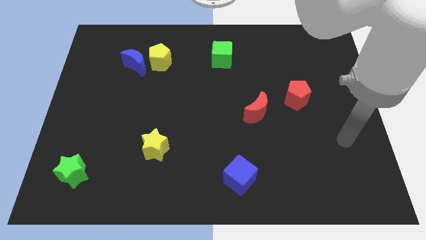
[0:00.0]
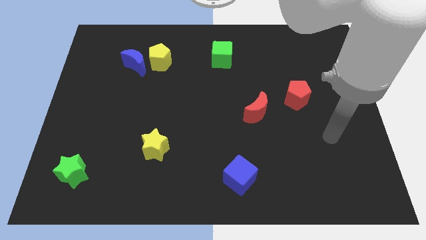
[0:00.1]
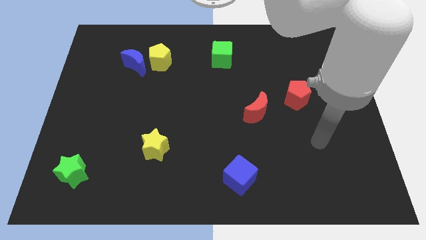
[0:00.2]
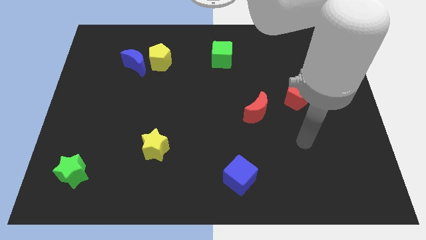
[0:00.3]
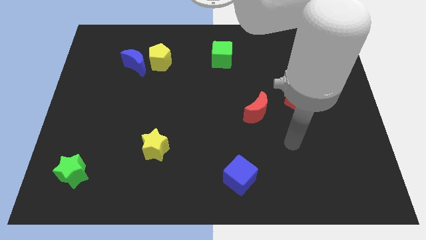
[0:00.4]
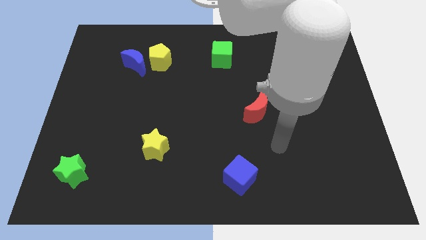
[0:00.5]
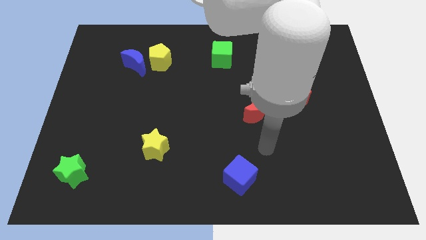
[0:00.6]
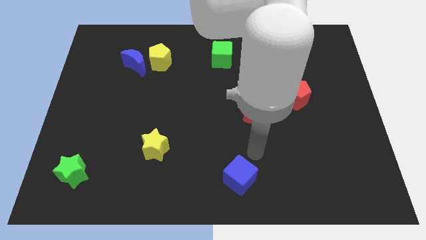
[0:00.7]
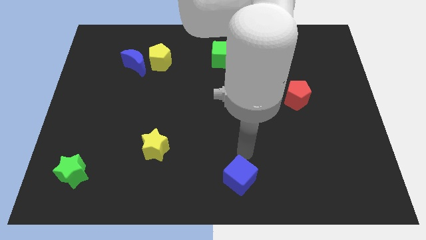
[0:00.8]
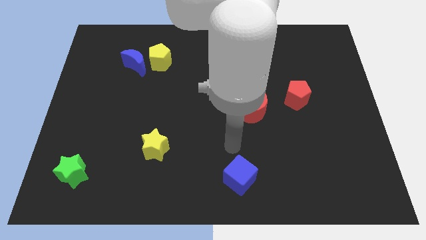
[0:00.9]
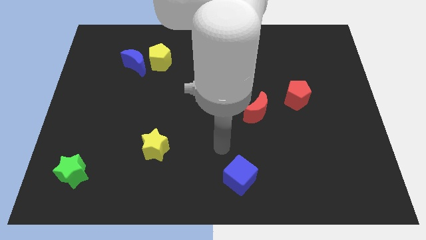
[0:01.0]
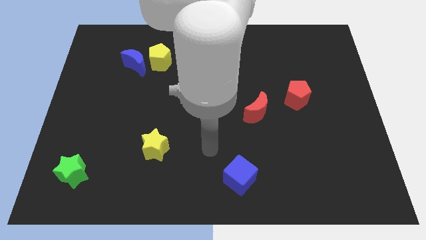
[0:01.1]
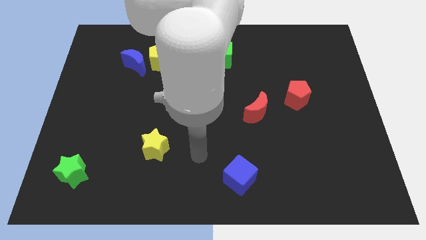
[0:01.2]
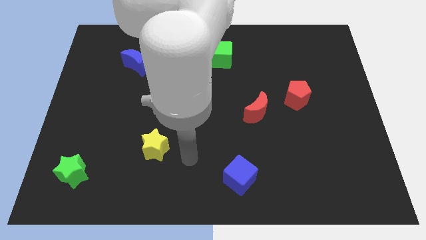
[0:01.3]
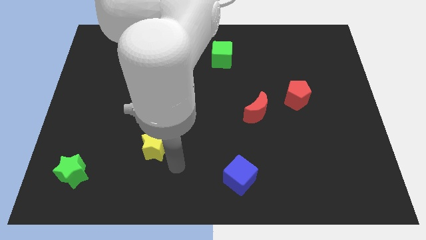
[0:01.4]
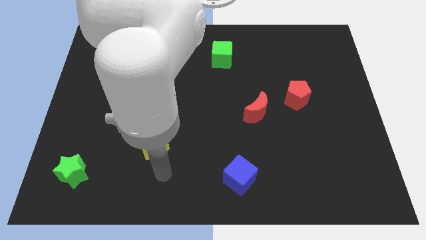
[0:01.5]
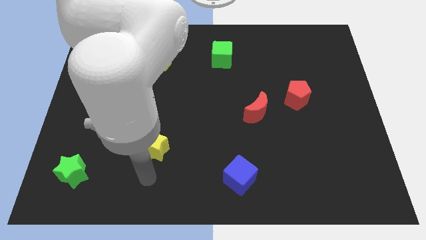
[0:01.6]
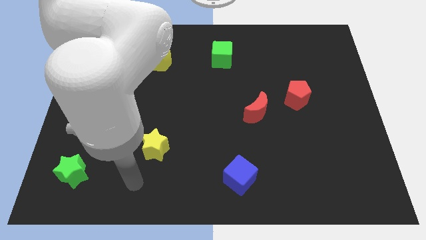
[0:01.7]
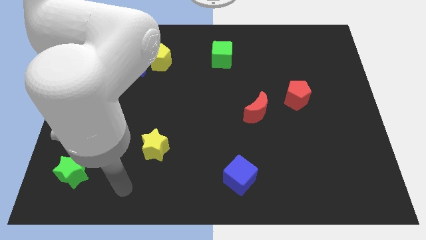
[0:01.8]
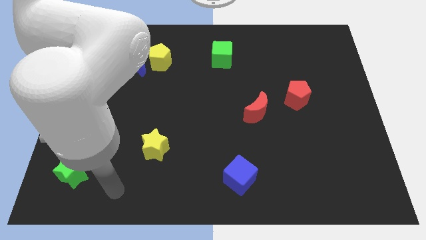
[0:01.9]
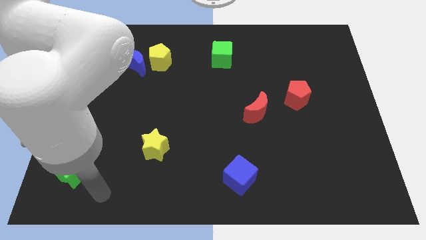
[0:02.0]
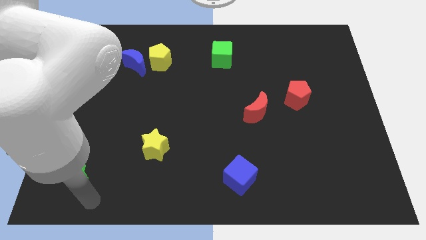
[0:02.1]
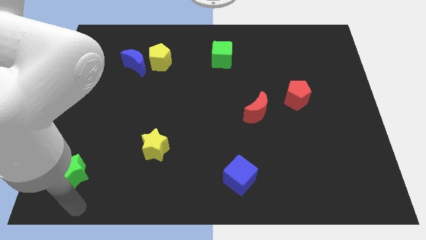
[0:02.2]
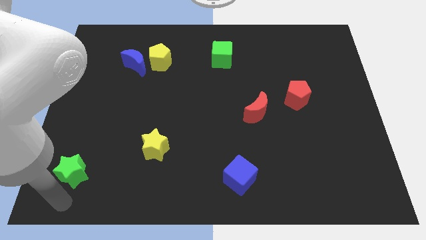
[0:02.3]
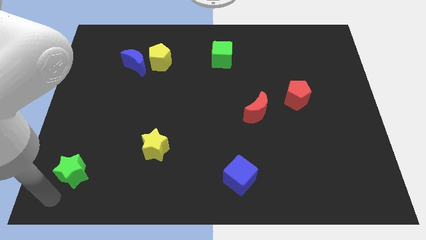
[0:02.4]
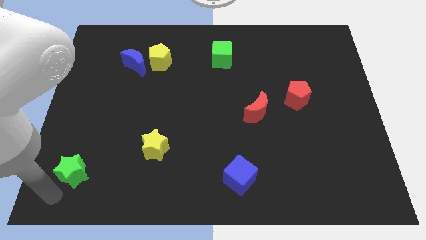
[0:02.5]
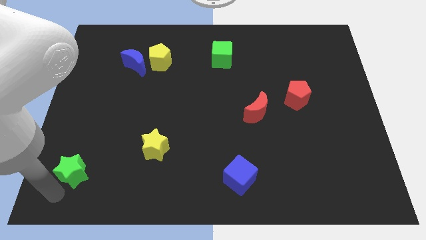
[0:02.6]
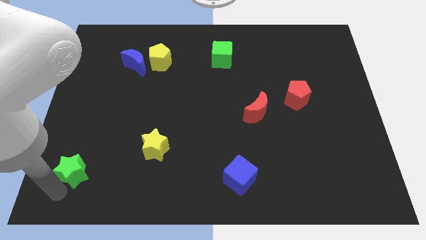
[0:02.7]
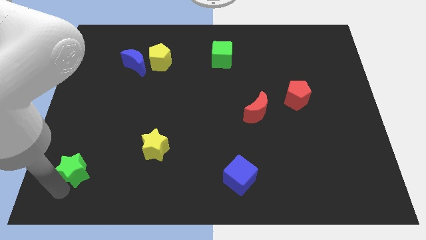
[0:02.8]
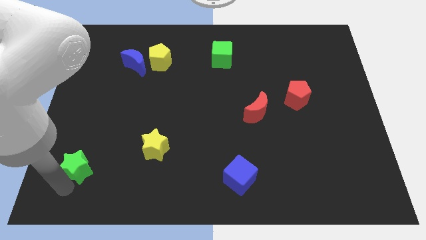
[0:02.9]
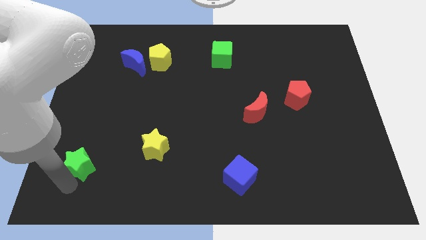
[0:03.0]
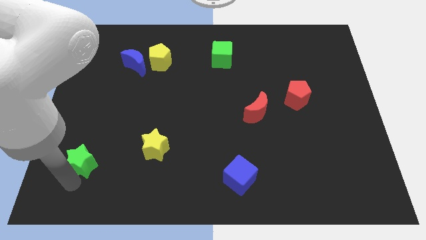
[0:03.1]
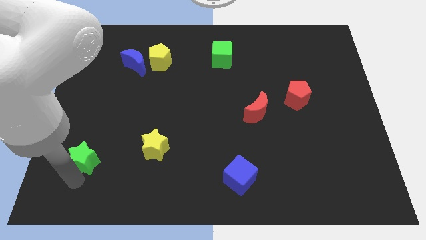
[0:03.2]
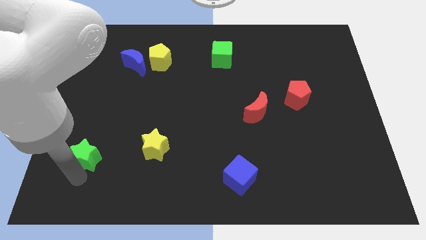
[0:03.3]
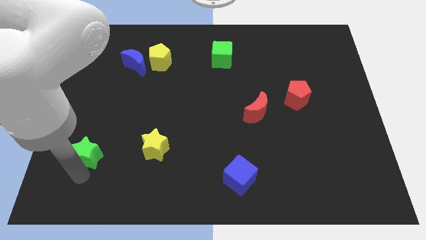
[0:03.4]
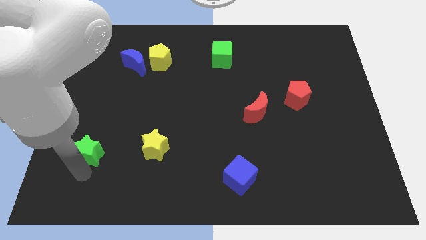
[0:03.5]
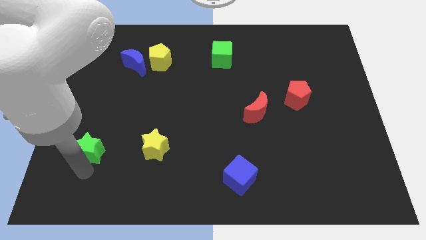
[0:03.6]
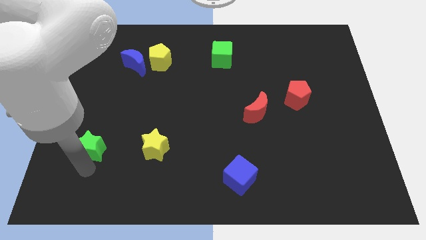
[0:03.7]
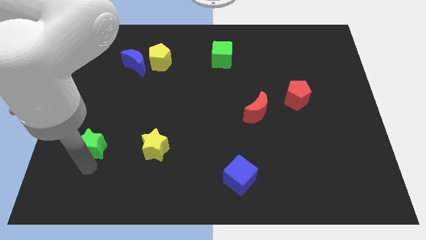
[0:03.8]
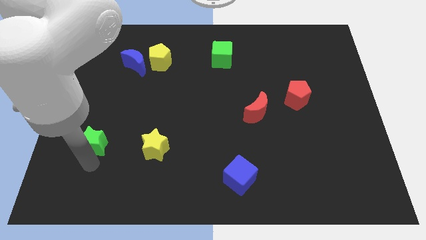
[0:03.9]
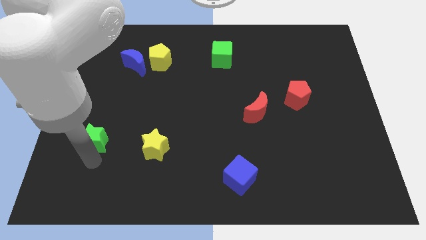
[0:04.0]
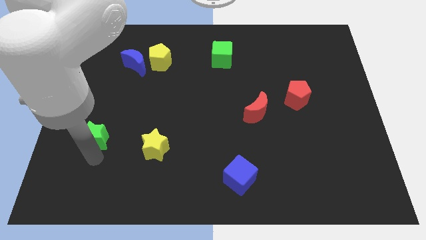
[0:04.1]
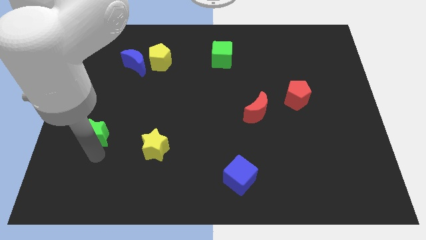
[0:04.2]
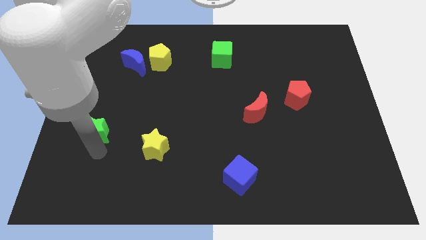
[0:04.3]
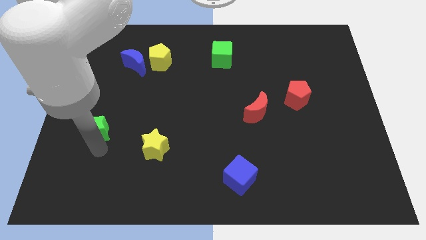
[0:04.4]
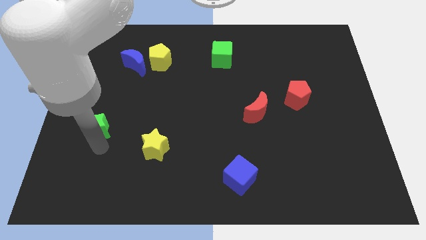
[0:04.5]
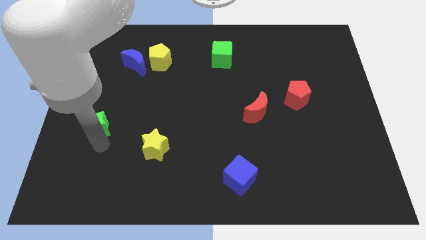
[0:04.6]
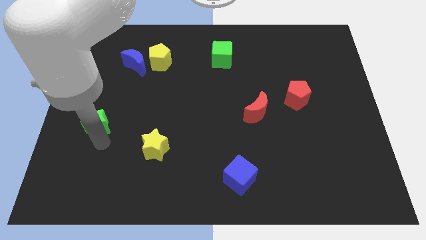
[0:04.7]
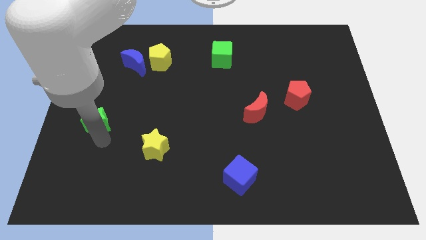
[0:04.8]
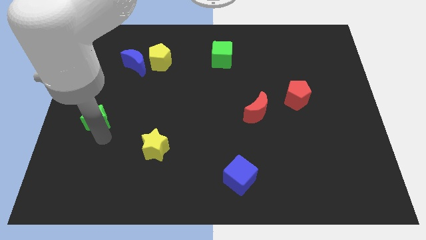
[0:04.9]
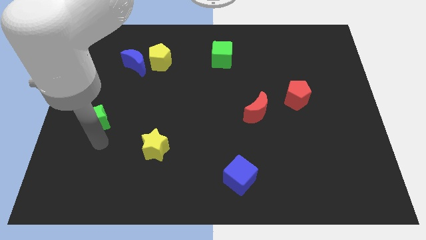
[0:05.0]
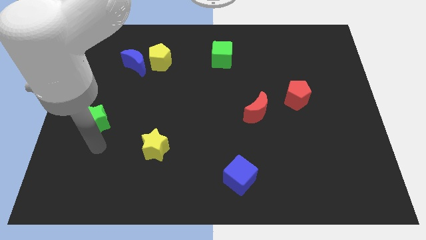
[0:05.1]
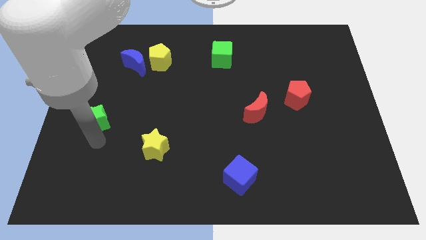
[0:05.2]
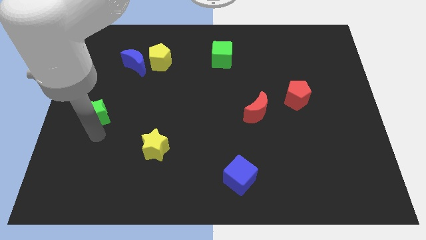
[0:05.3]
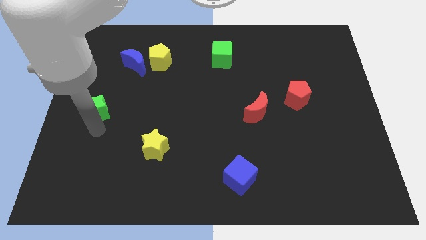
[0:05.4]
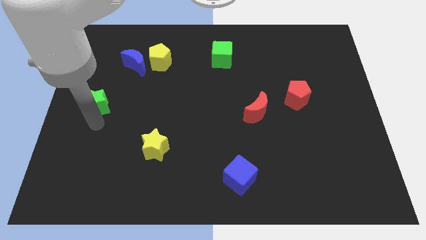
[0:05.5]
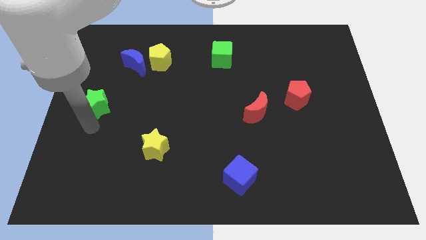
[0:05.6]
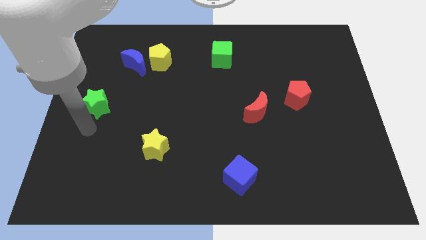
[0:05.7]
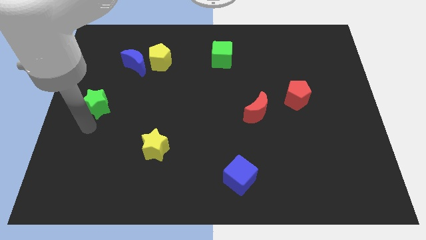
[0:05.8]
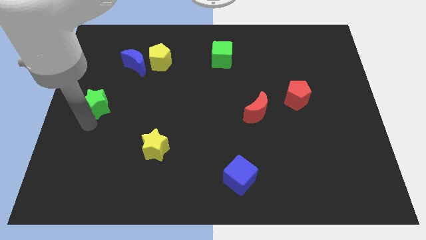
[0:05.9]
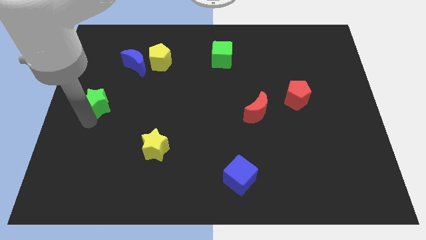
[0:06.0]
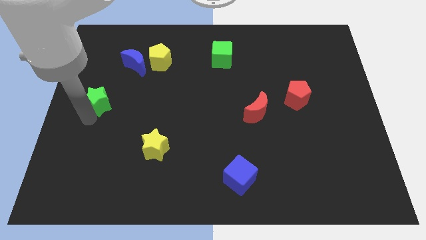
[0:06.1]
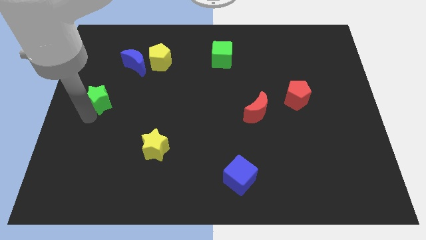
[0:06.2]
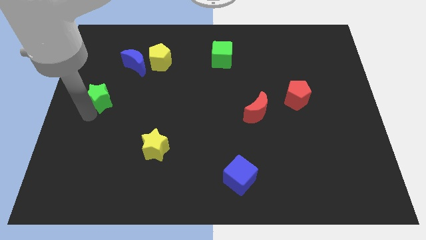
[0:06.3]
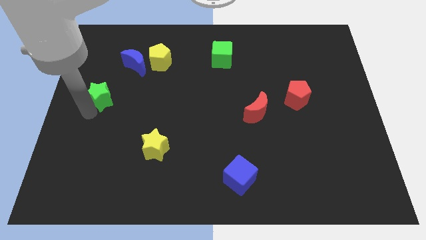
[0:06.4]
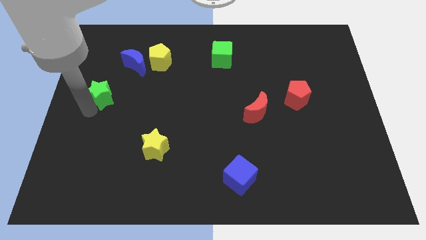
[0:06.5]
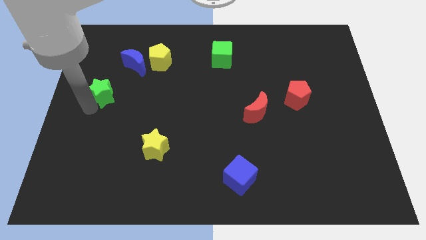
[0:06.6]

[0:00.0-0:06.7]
move the green star diagonally down and to the left of the blue moon

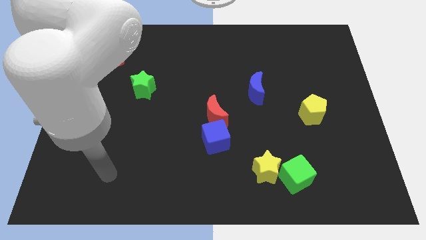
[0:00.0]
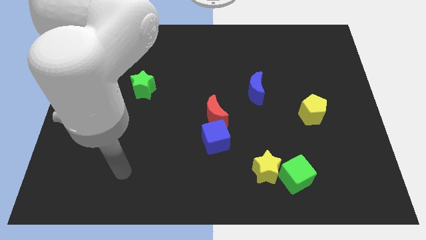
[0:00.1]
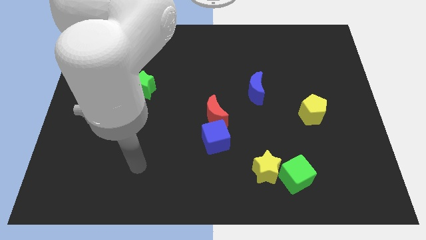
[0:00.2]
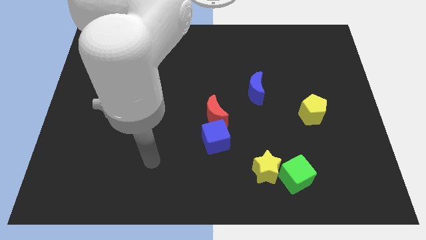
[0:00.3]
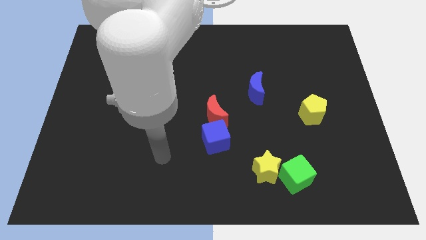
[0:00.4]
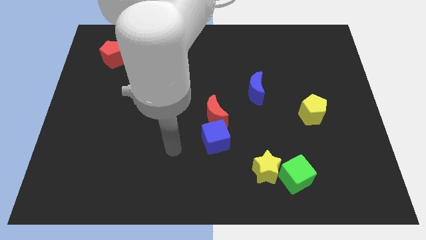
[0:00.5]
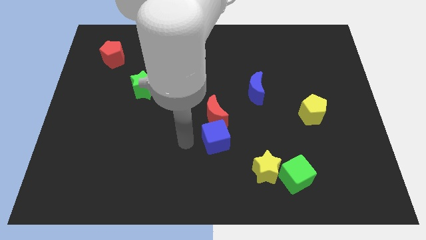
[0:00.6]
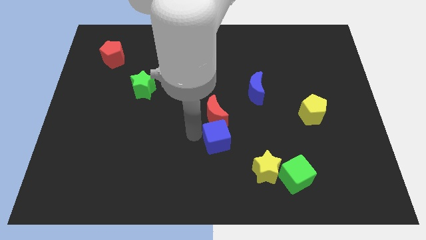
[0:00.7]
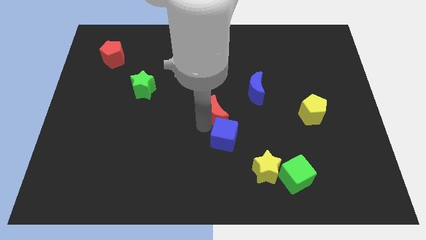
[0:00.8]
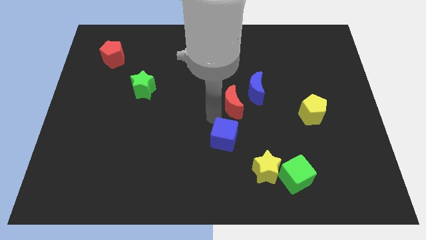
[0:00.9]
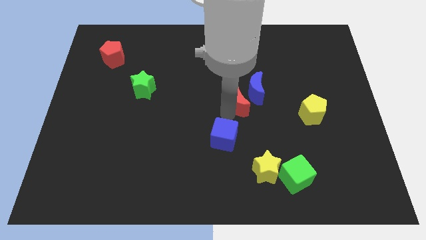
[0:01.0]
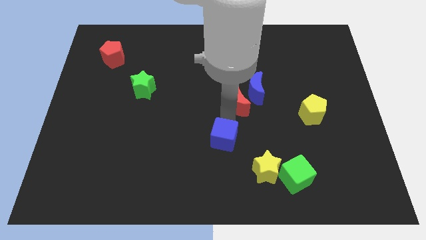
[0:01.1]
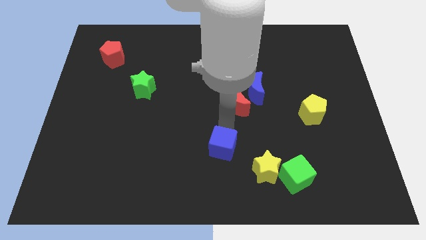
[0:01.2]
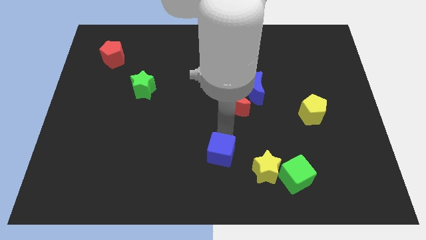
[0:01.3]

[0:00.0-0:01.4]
put the blue cube to the left of the yellow star
